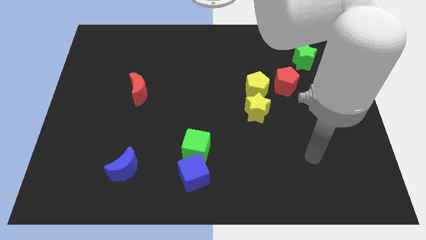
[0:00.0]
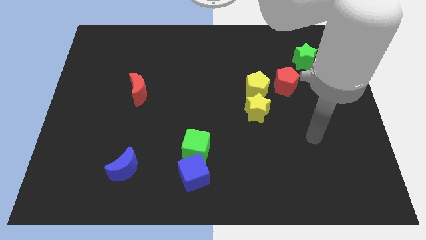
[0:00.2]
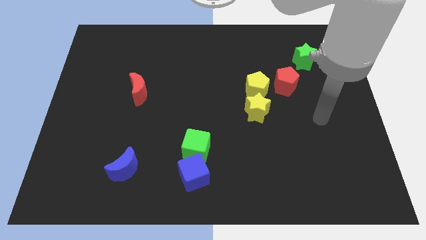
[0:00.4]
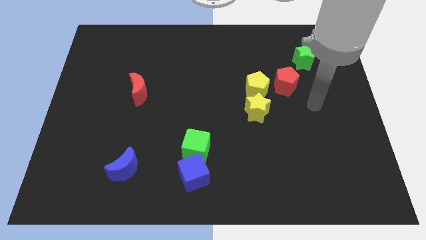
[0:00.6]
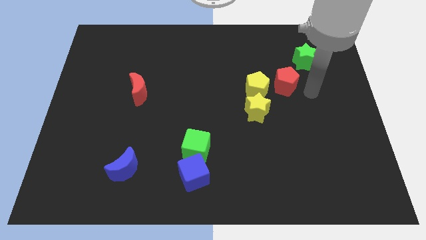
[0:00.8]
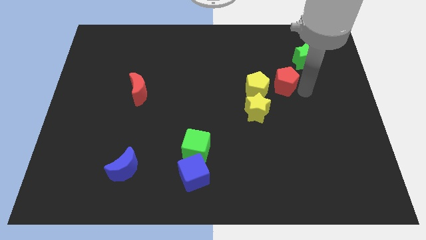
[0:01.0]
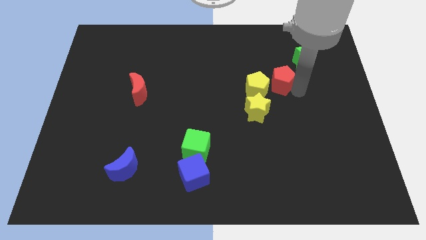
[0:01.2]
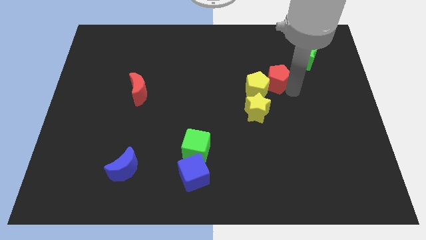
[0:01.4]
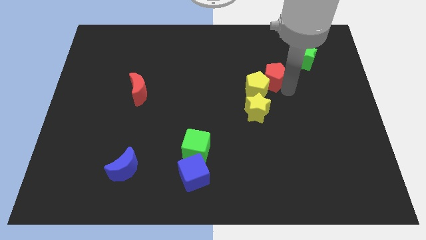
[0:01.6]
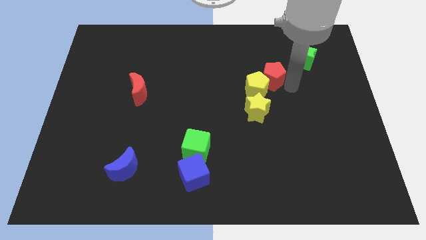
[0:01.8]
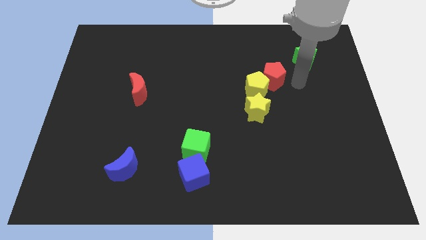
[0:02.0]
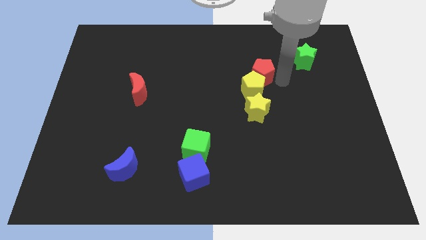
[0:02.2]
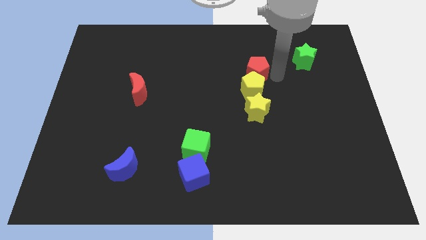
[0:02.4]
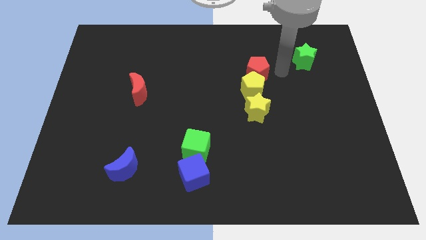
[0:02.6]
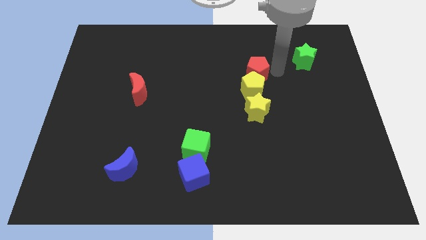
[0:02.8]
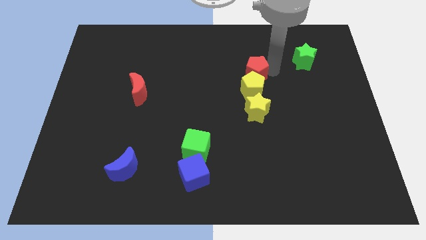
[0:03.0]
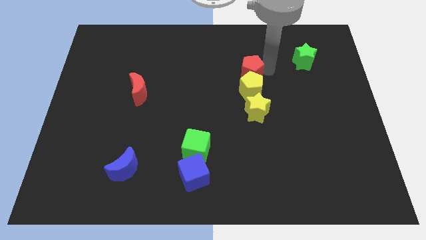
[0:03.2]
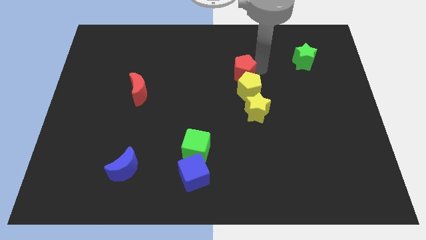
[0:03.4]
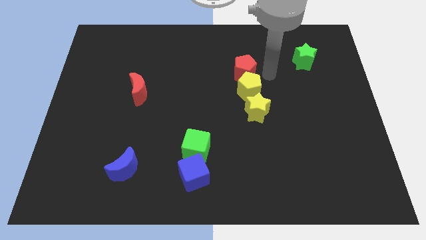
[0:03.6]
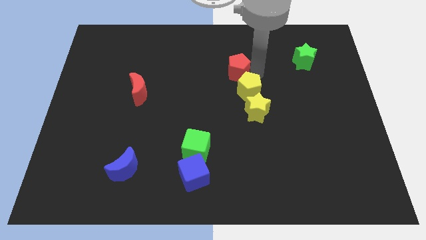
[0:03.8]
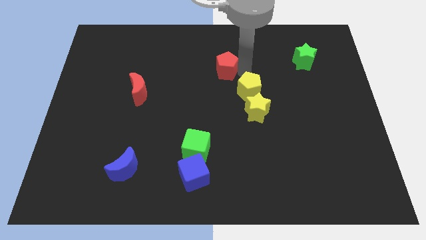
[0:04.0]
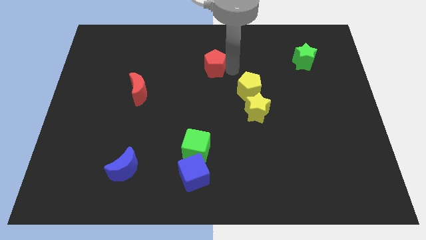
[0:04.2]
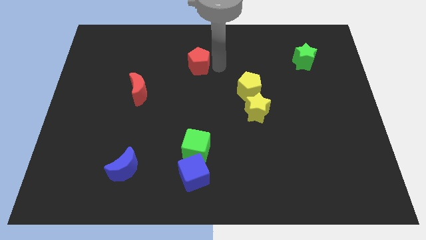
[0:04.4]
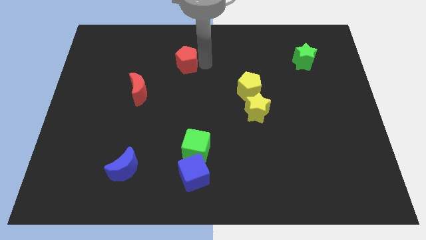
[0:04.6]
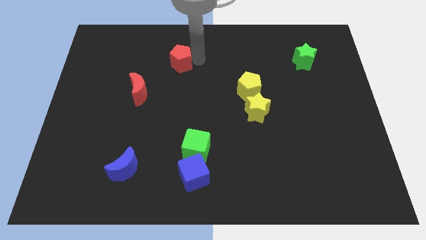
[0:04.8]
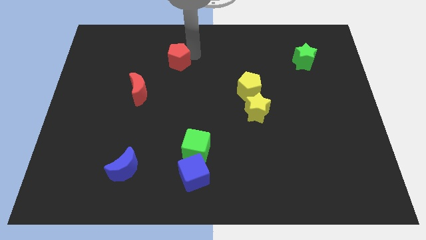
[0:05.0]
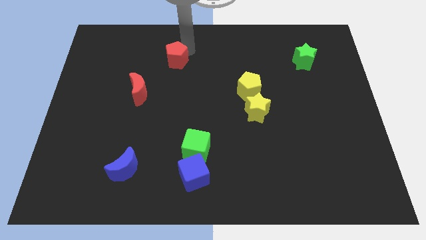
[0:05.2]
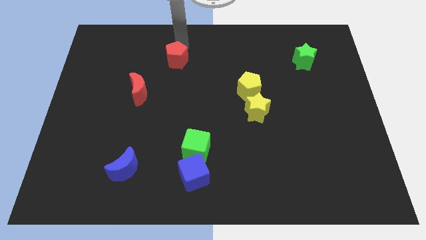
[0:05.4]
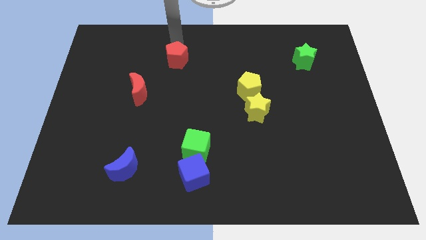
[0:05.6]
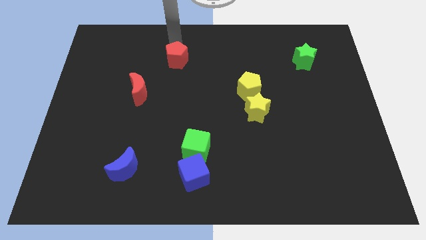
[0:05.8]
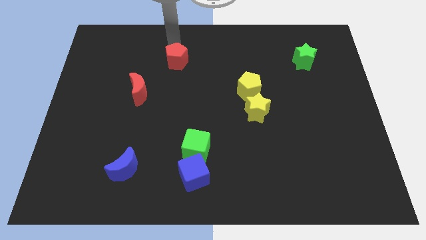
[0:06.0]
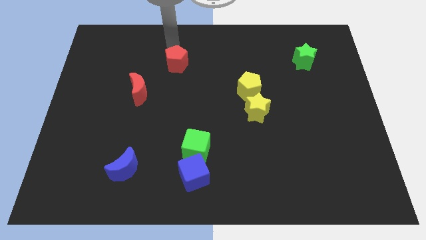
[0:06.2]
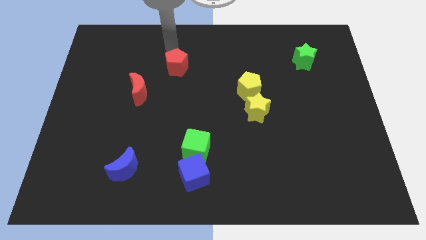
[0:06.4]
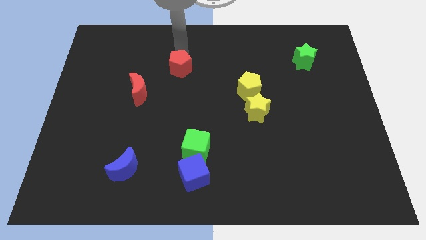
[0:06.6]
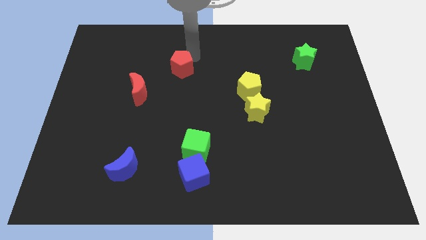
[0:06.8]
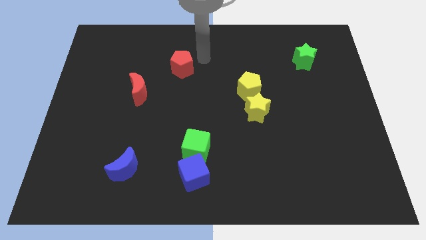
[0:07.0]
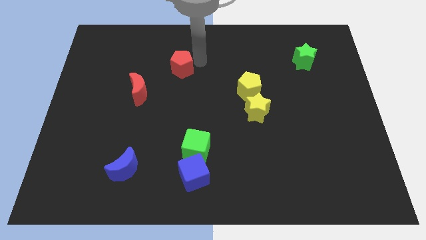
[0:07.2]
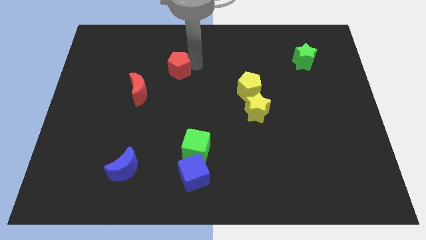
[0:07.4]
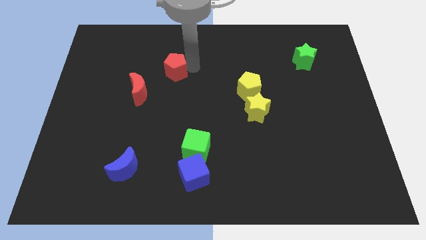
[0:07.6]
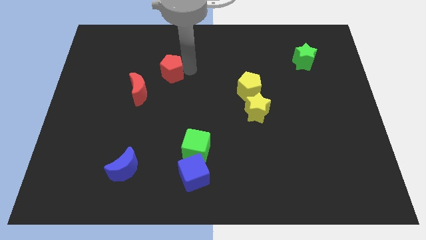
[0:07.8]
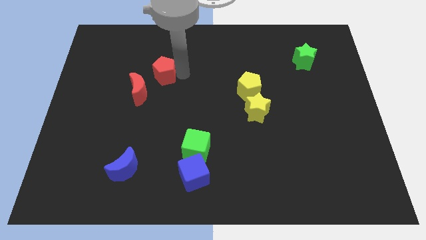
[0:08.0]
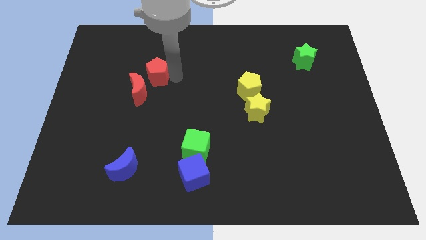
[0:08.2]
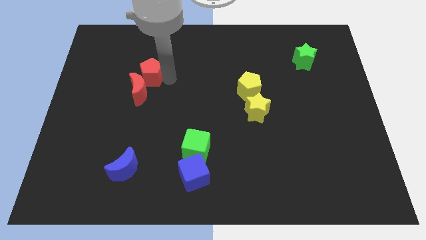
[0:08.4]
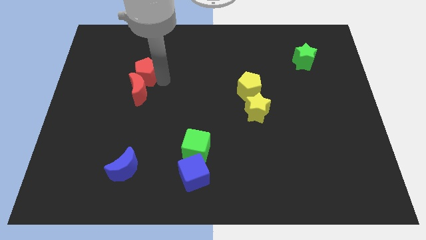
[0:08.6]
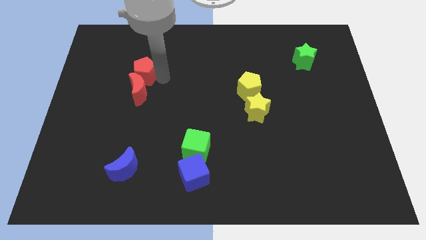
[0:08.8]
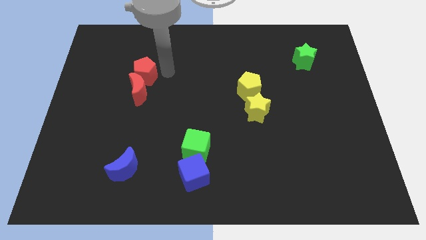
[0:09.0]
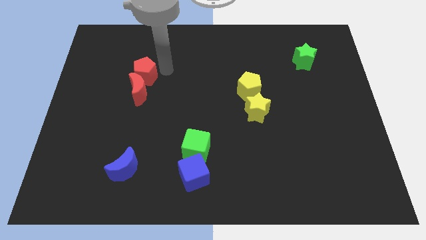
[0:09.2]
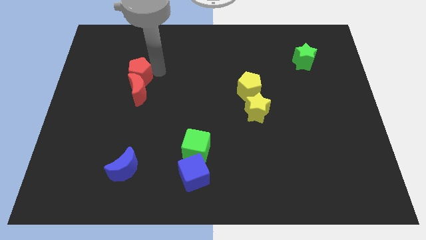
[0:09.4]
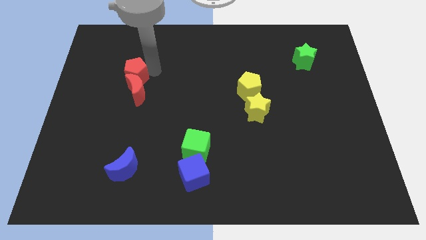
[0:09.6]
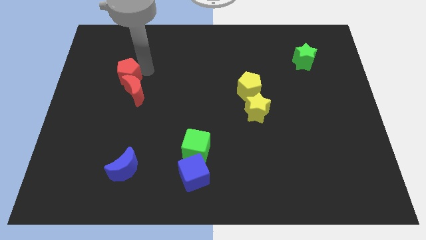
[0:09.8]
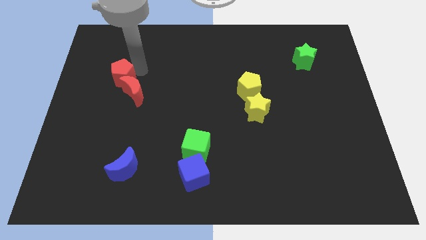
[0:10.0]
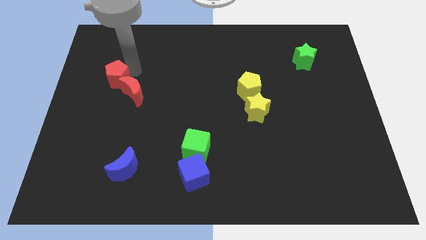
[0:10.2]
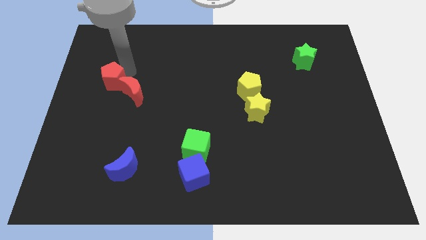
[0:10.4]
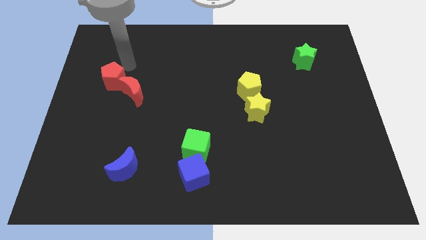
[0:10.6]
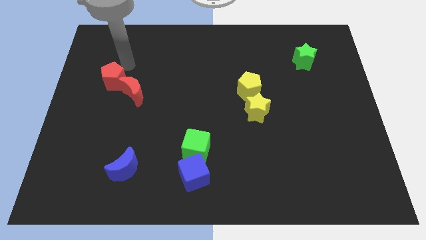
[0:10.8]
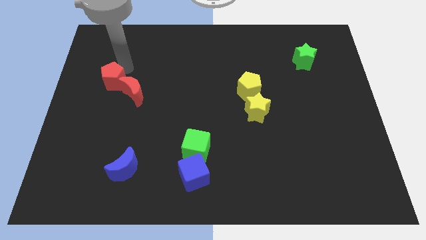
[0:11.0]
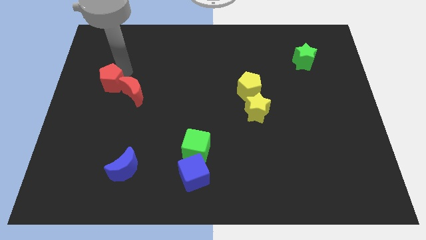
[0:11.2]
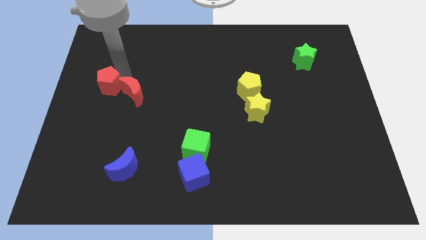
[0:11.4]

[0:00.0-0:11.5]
push the red pentagon to the left side

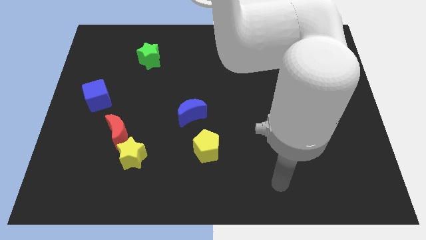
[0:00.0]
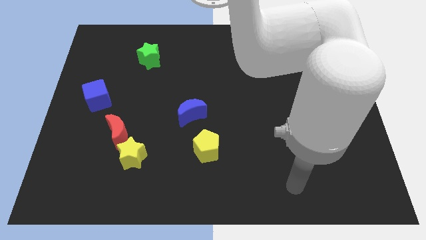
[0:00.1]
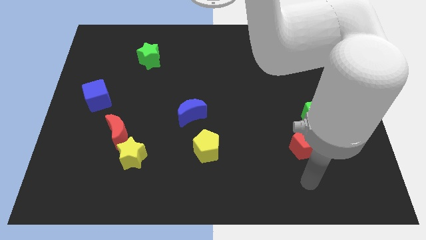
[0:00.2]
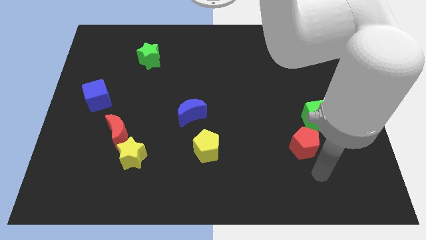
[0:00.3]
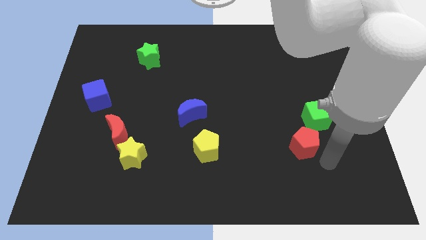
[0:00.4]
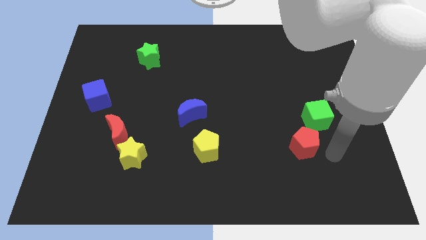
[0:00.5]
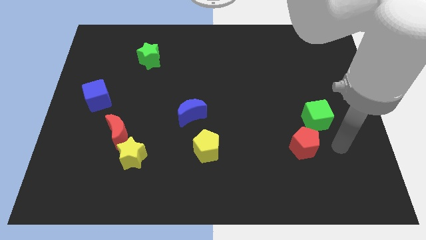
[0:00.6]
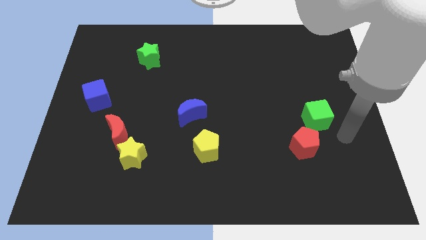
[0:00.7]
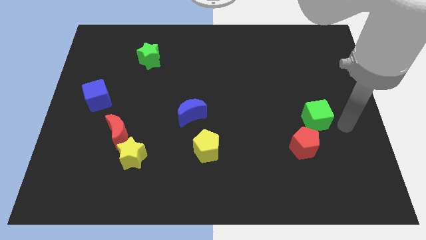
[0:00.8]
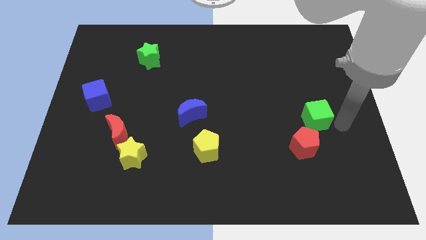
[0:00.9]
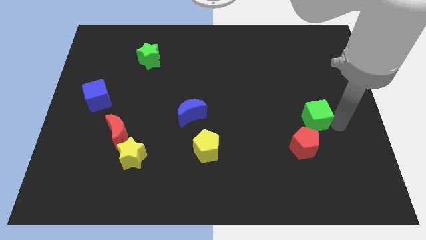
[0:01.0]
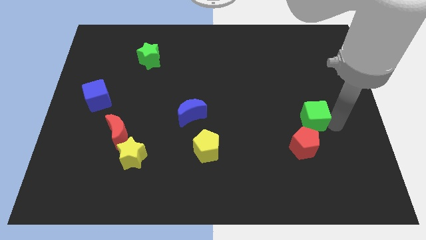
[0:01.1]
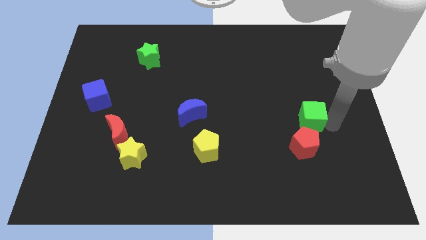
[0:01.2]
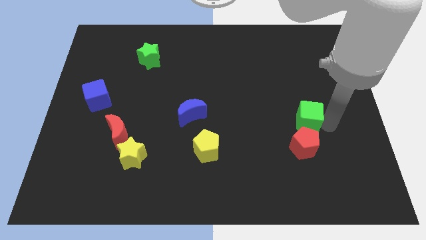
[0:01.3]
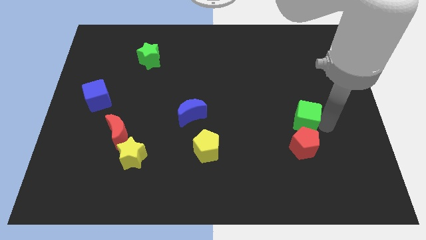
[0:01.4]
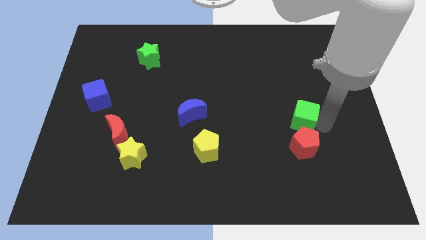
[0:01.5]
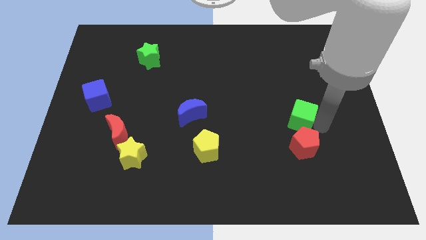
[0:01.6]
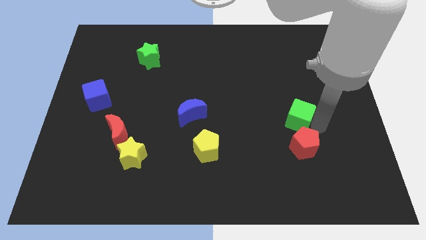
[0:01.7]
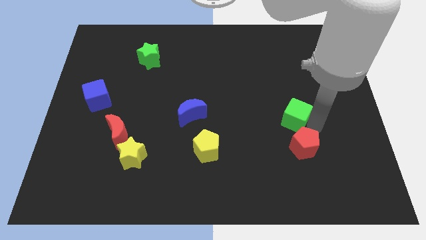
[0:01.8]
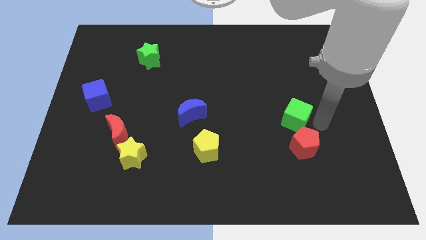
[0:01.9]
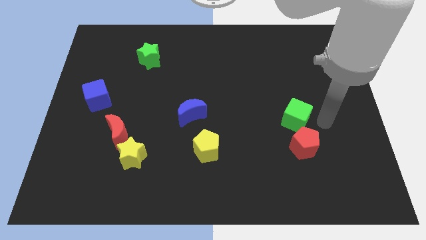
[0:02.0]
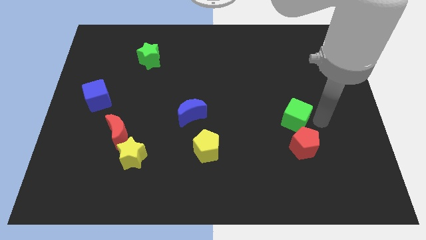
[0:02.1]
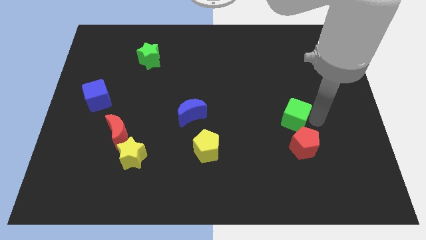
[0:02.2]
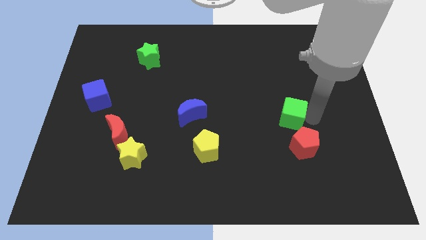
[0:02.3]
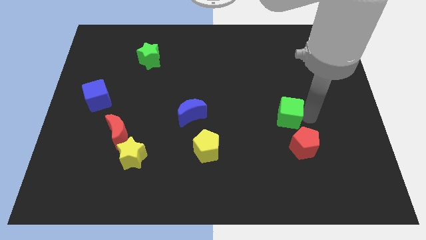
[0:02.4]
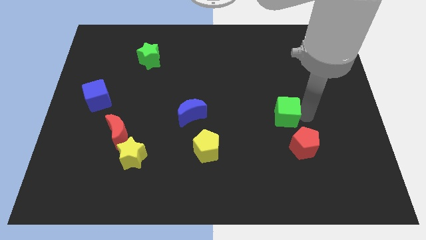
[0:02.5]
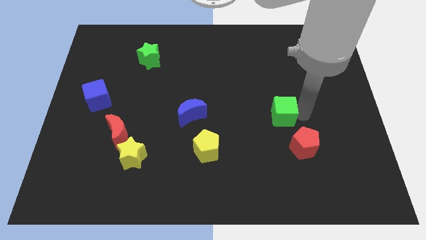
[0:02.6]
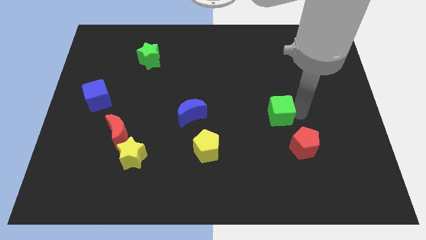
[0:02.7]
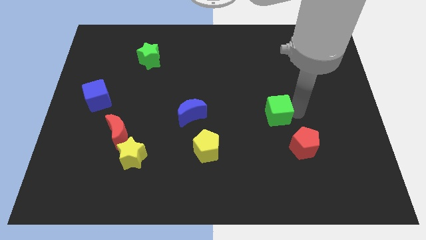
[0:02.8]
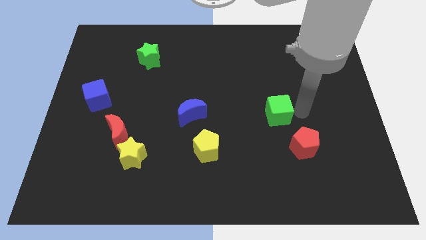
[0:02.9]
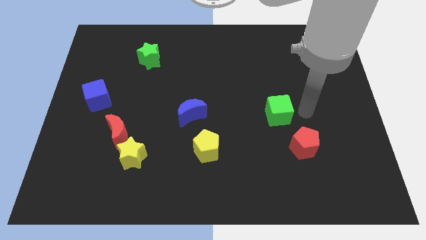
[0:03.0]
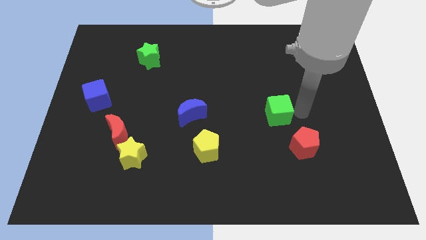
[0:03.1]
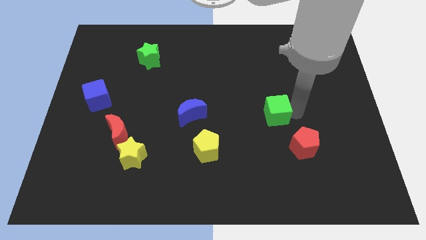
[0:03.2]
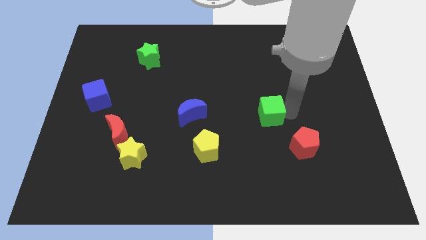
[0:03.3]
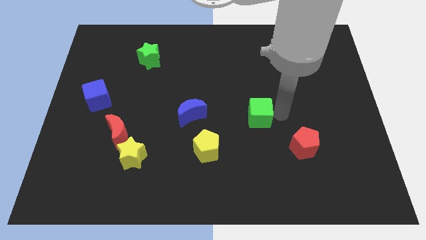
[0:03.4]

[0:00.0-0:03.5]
push the green cube to the middle of the board
